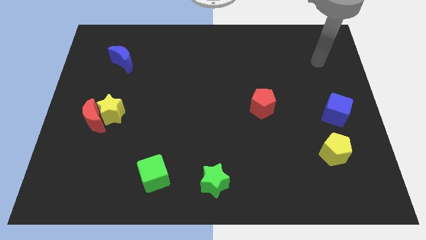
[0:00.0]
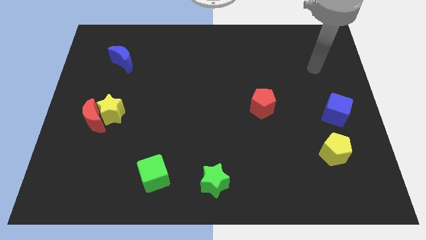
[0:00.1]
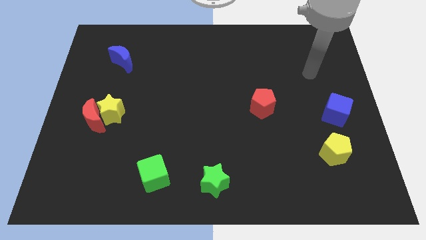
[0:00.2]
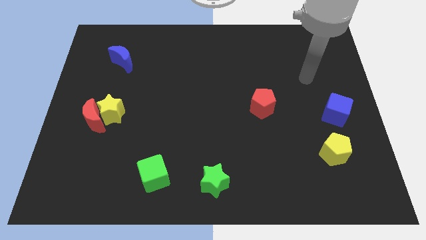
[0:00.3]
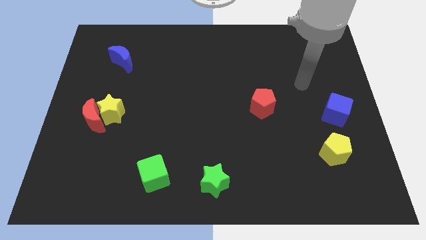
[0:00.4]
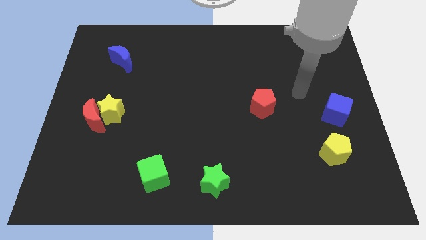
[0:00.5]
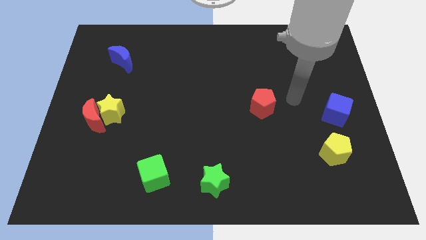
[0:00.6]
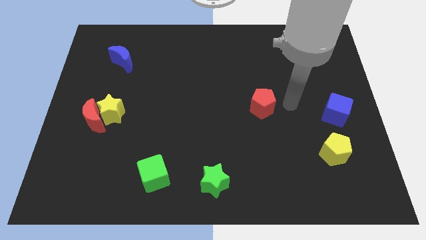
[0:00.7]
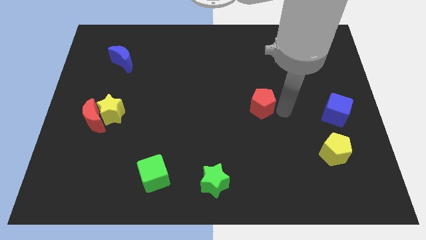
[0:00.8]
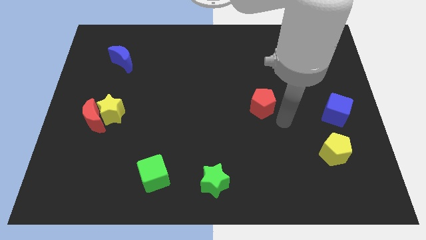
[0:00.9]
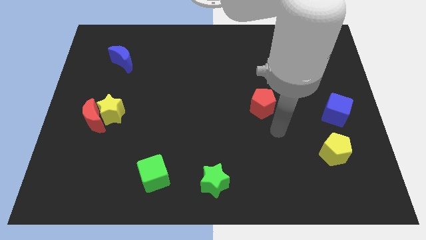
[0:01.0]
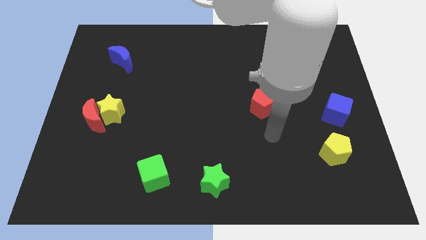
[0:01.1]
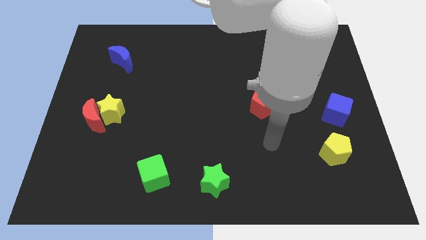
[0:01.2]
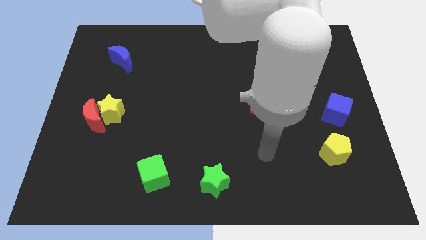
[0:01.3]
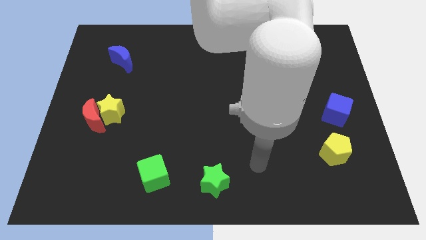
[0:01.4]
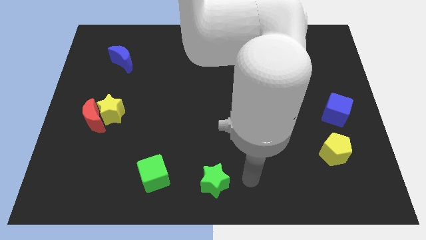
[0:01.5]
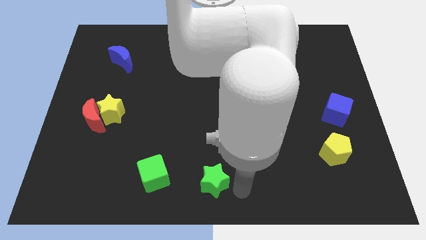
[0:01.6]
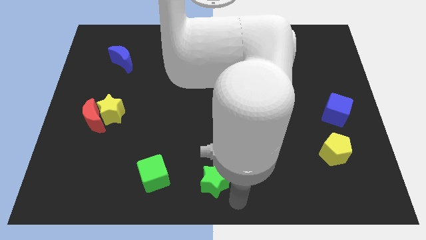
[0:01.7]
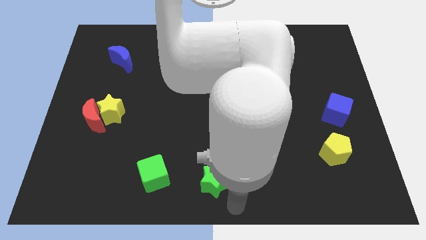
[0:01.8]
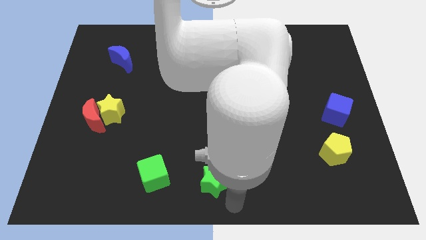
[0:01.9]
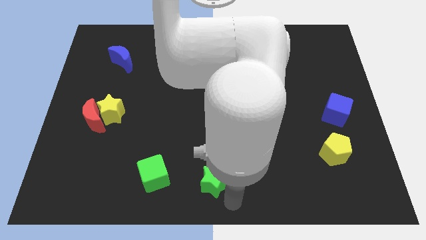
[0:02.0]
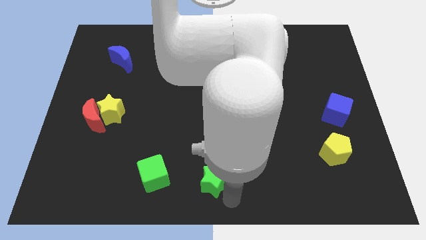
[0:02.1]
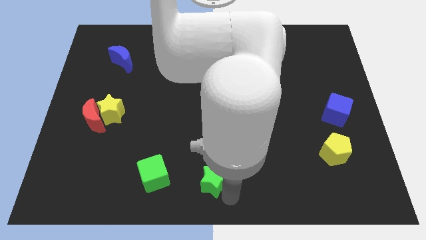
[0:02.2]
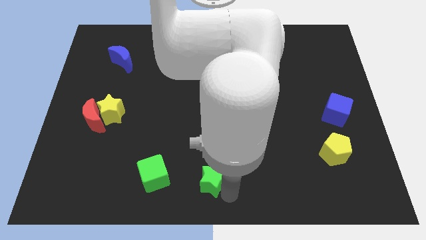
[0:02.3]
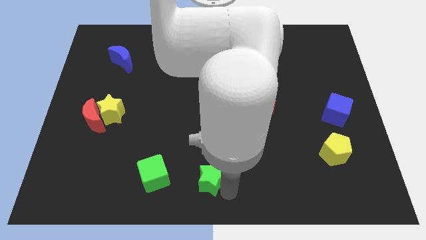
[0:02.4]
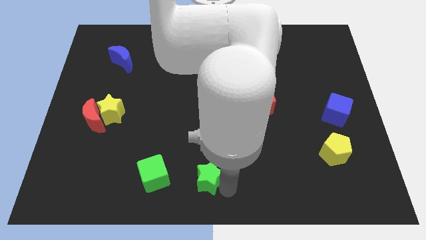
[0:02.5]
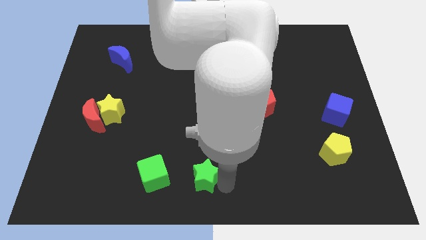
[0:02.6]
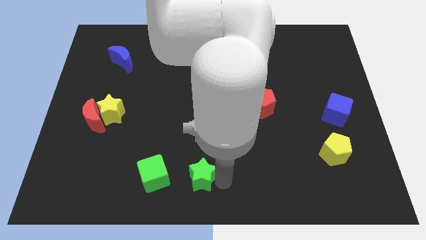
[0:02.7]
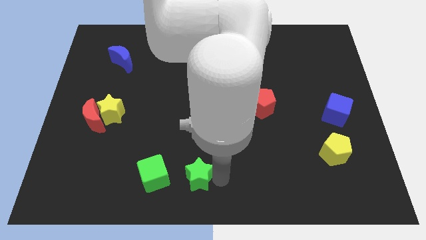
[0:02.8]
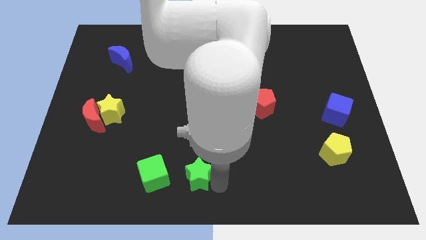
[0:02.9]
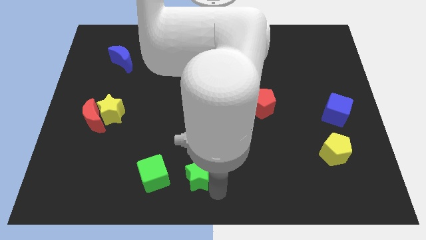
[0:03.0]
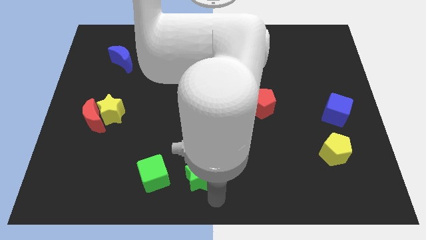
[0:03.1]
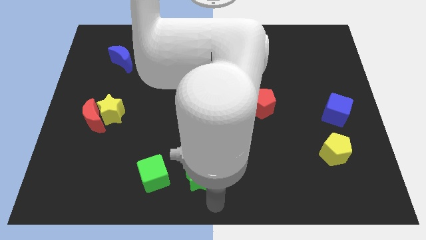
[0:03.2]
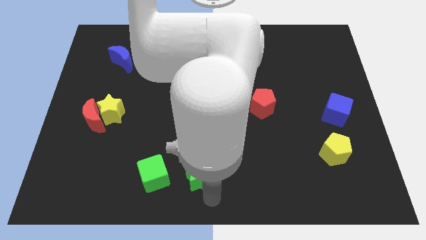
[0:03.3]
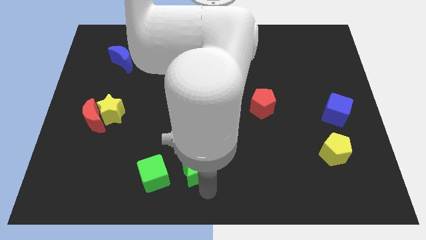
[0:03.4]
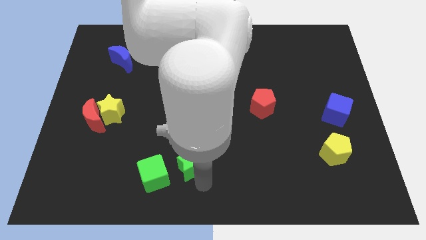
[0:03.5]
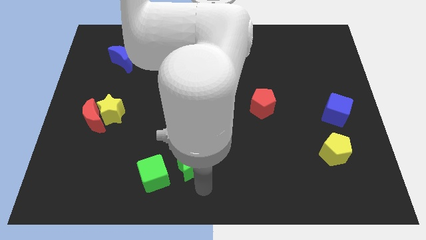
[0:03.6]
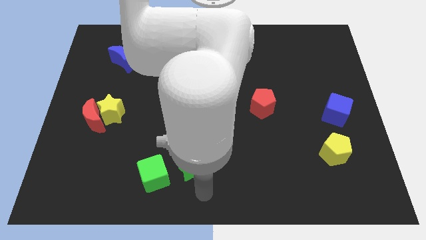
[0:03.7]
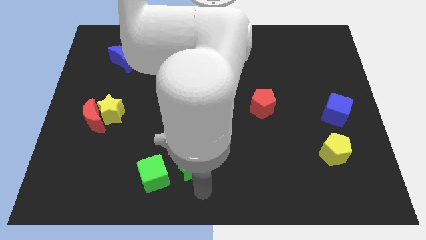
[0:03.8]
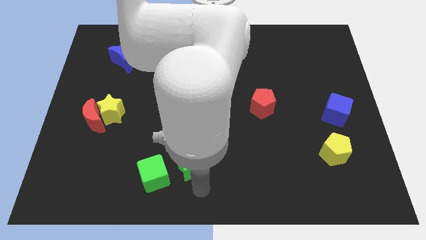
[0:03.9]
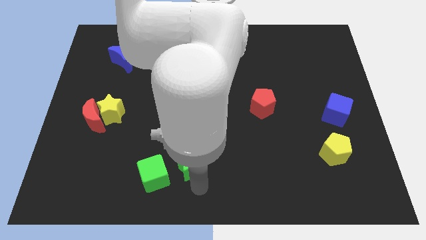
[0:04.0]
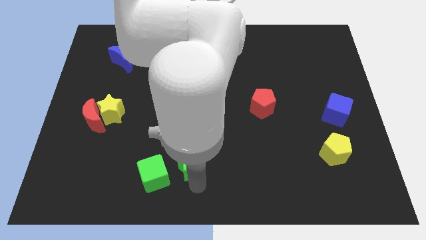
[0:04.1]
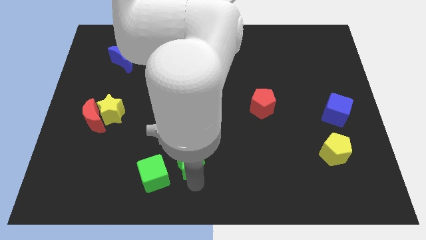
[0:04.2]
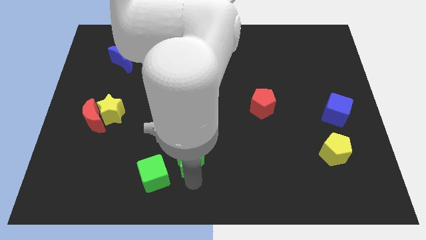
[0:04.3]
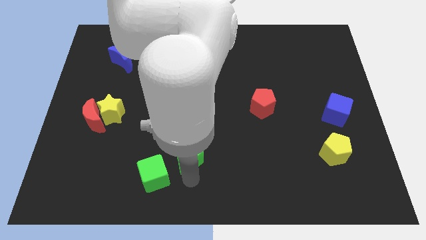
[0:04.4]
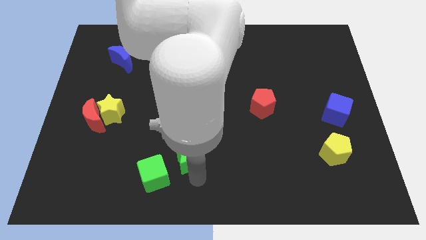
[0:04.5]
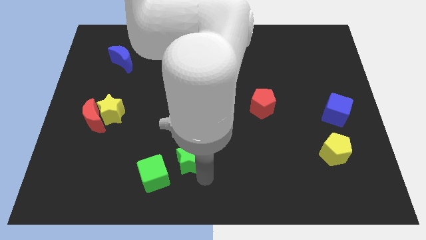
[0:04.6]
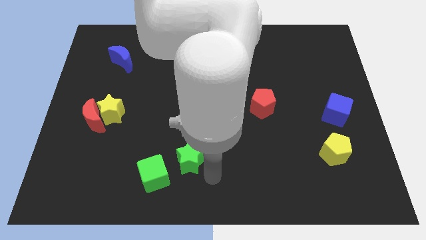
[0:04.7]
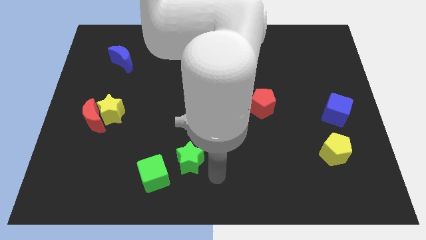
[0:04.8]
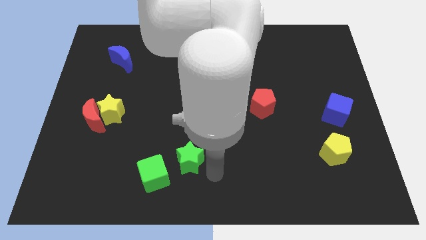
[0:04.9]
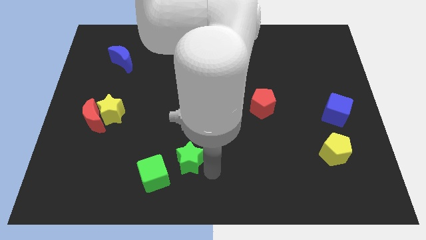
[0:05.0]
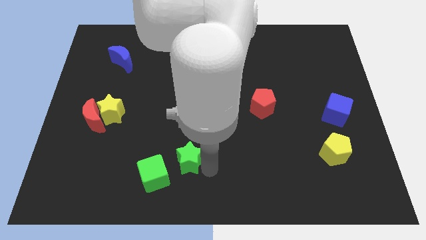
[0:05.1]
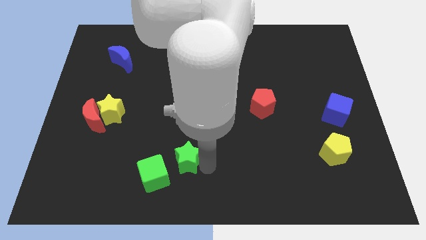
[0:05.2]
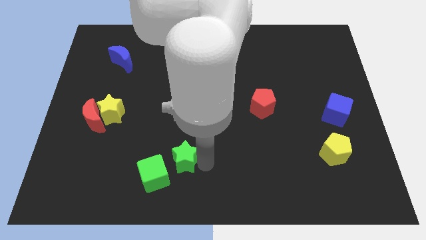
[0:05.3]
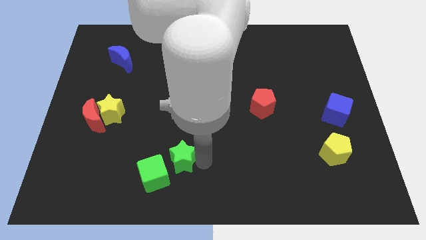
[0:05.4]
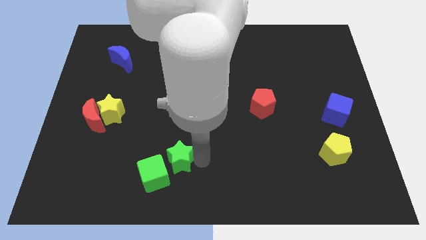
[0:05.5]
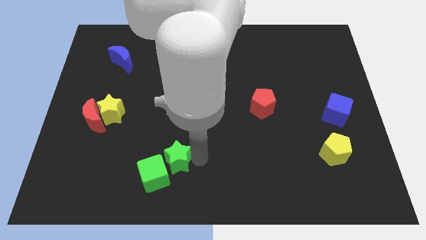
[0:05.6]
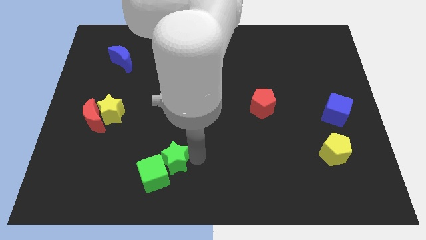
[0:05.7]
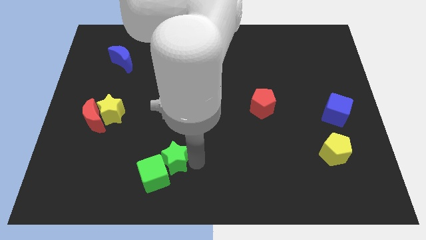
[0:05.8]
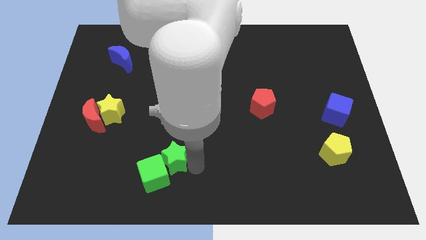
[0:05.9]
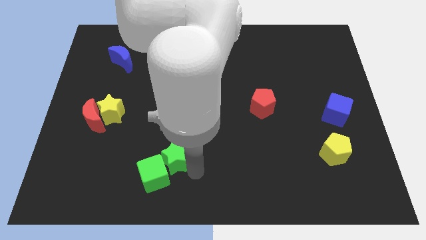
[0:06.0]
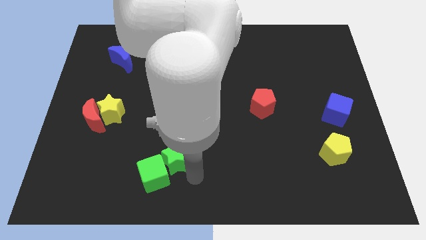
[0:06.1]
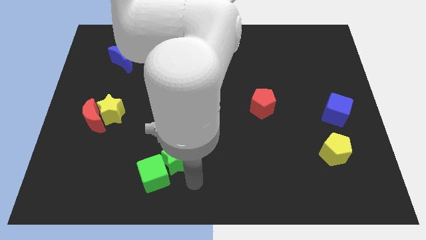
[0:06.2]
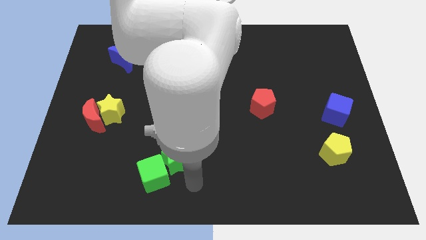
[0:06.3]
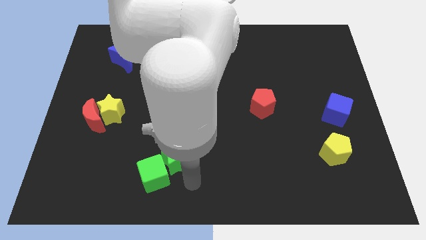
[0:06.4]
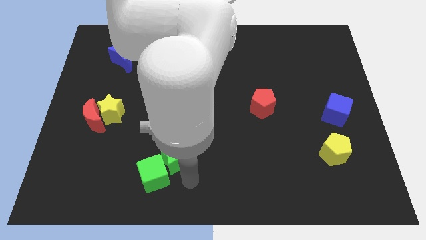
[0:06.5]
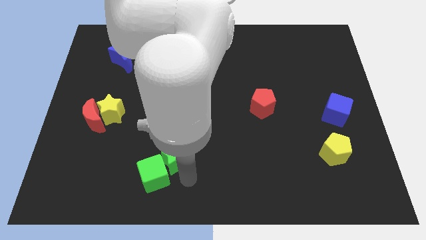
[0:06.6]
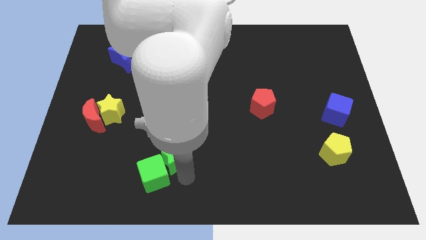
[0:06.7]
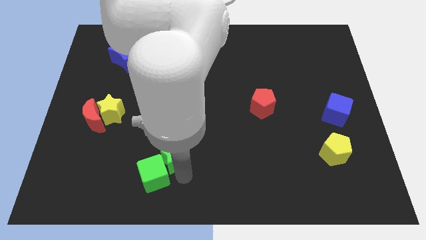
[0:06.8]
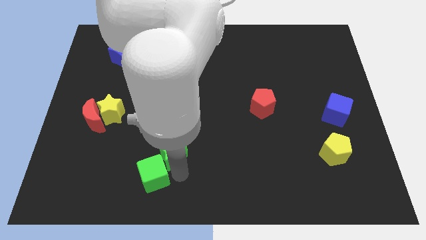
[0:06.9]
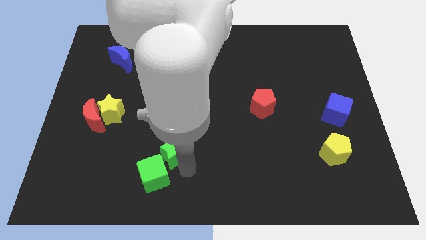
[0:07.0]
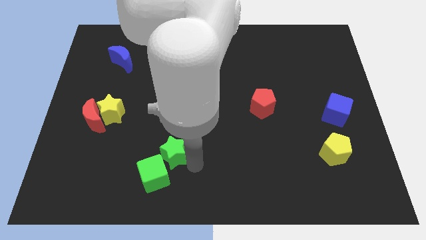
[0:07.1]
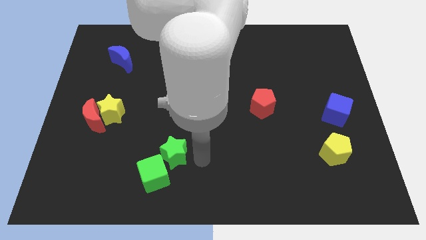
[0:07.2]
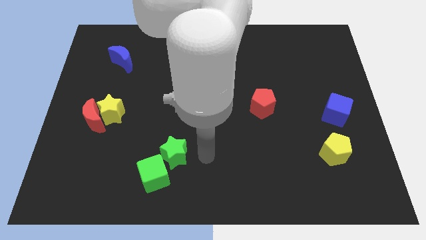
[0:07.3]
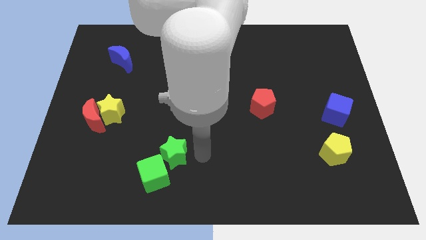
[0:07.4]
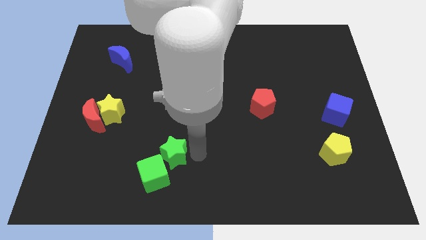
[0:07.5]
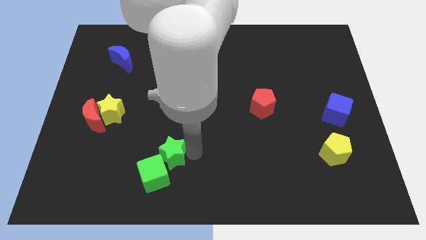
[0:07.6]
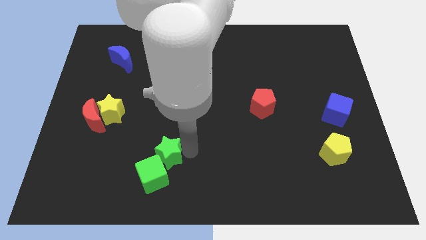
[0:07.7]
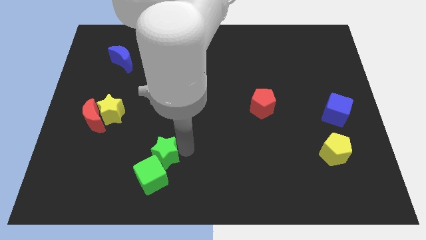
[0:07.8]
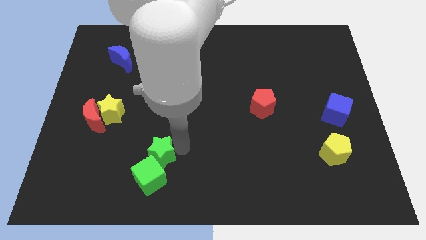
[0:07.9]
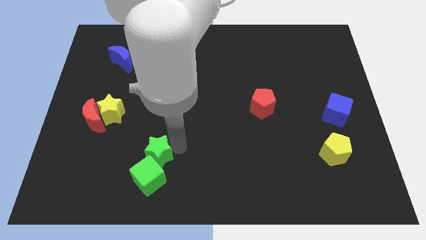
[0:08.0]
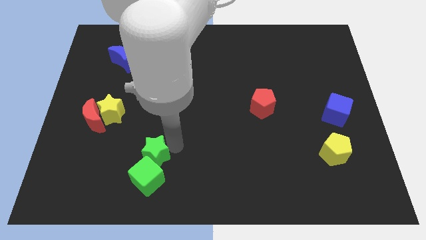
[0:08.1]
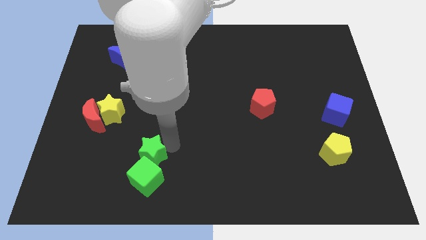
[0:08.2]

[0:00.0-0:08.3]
move the green star to the top left of the green cube
